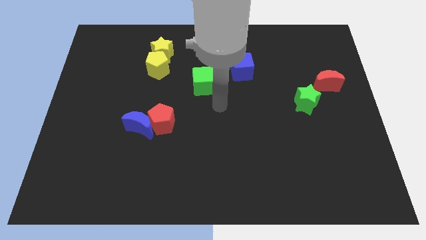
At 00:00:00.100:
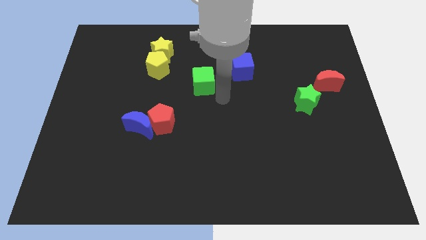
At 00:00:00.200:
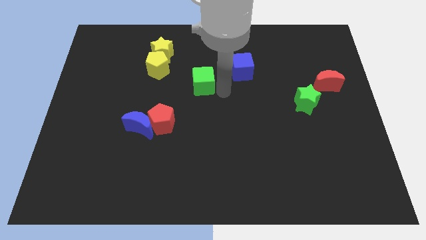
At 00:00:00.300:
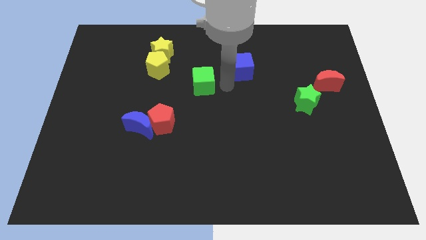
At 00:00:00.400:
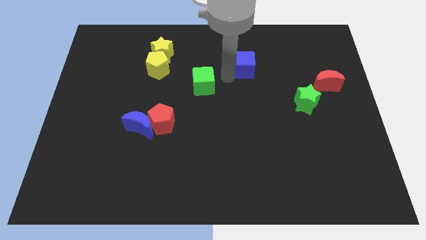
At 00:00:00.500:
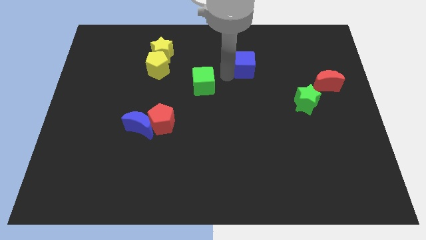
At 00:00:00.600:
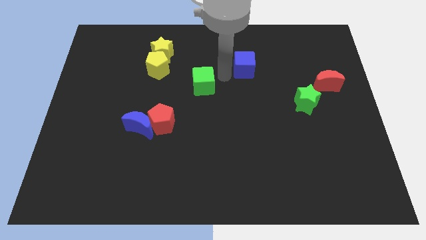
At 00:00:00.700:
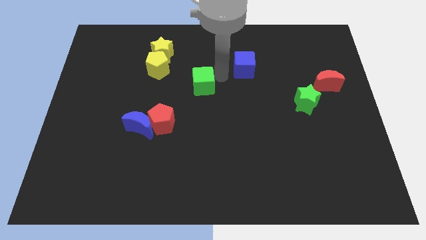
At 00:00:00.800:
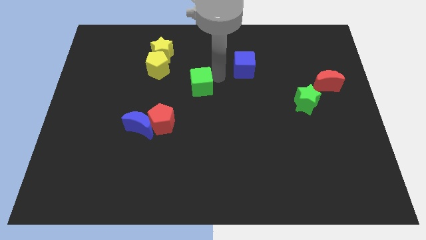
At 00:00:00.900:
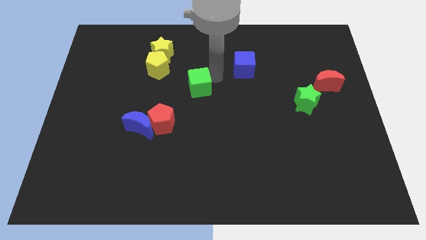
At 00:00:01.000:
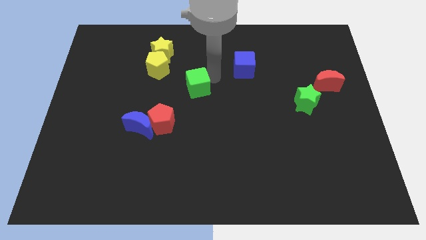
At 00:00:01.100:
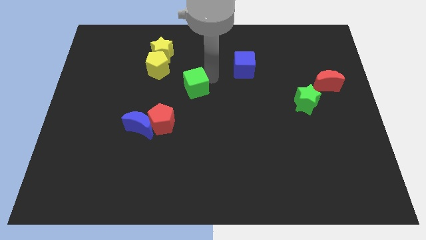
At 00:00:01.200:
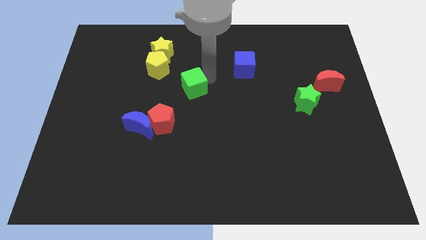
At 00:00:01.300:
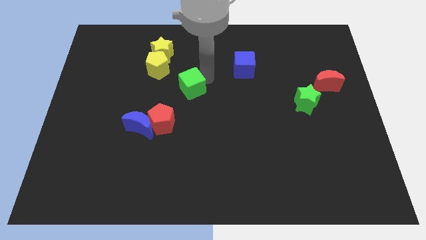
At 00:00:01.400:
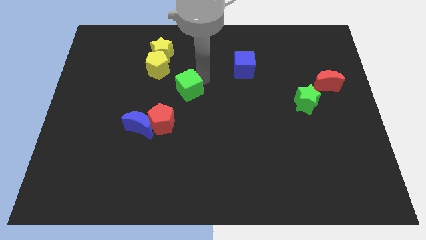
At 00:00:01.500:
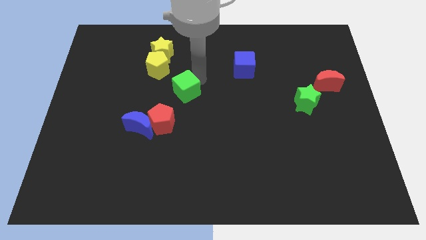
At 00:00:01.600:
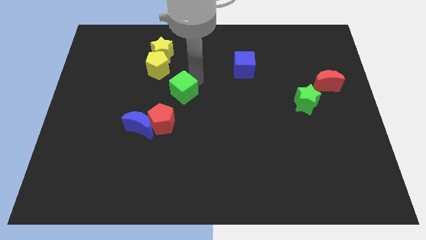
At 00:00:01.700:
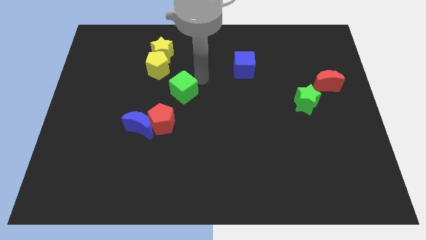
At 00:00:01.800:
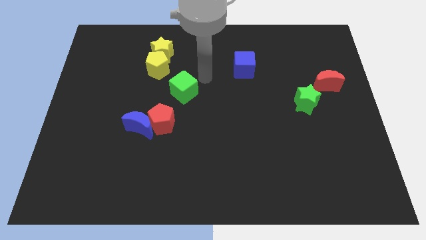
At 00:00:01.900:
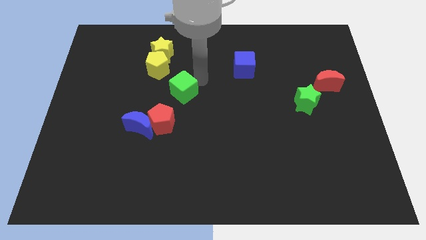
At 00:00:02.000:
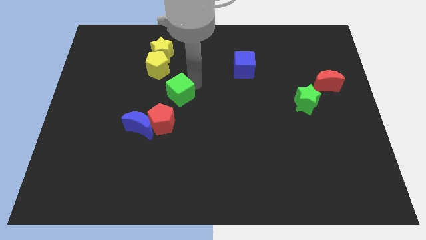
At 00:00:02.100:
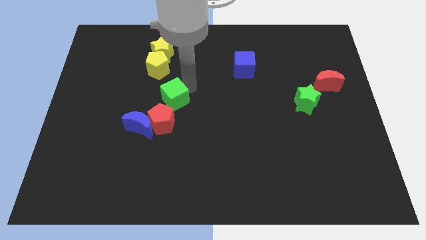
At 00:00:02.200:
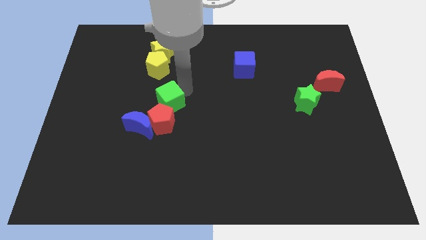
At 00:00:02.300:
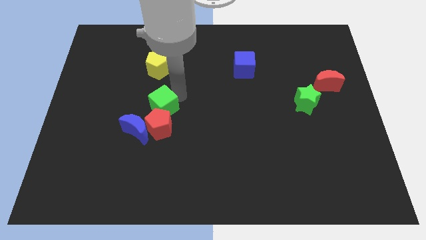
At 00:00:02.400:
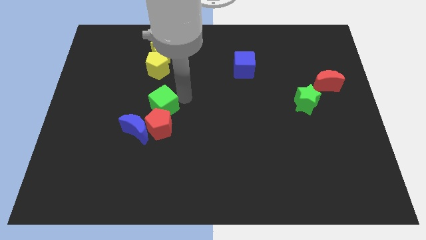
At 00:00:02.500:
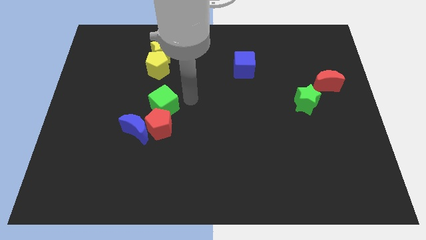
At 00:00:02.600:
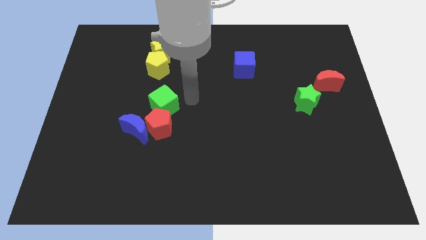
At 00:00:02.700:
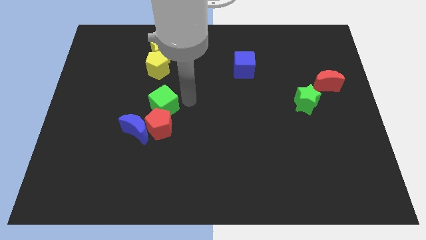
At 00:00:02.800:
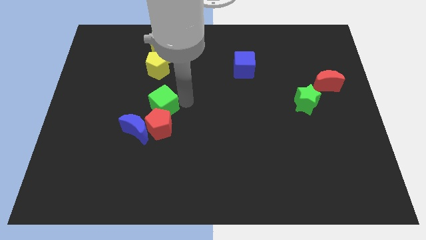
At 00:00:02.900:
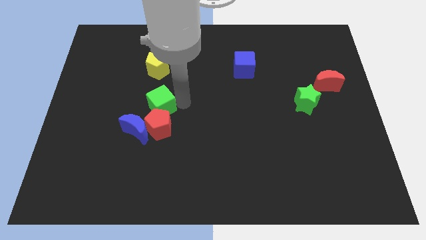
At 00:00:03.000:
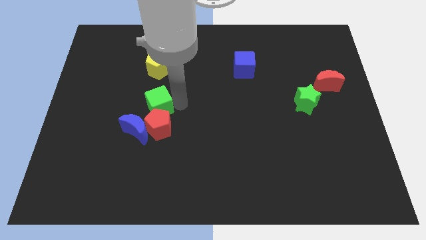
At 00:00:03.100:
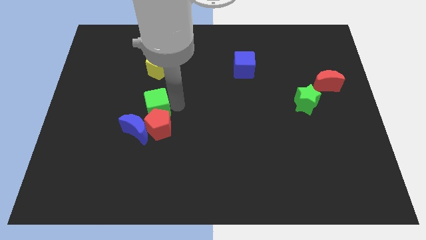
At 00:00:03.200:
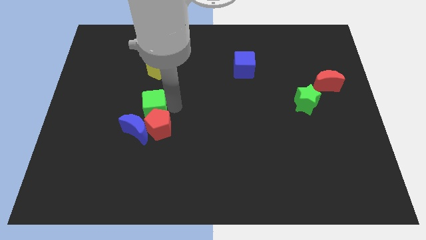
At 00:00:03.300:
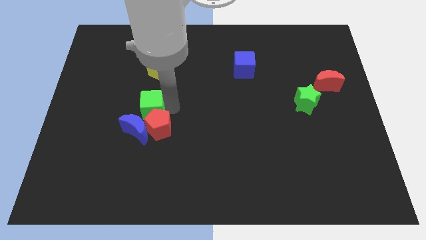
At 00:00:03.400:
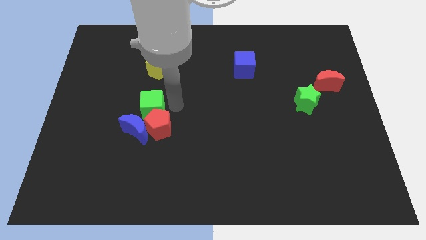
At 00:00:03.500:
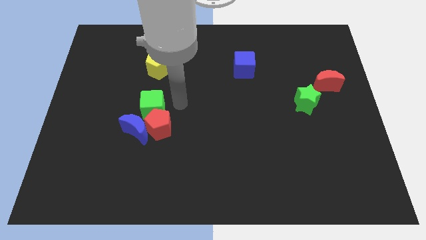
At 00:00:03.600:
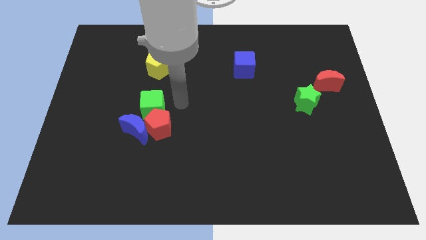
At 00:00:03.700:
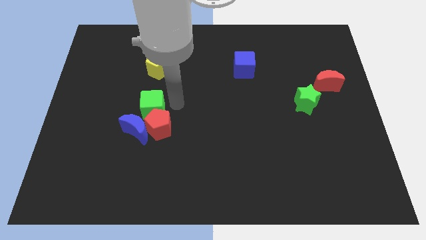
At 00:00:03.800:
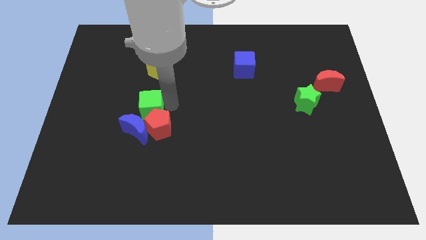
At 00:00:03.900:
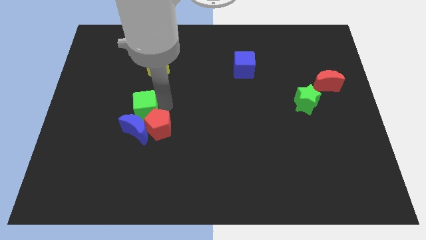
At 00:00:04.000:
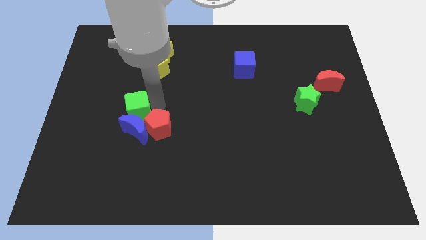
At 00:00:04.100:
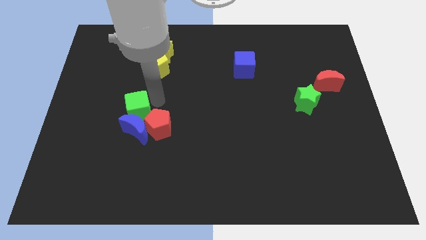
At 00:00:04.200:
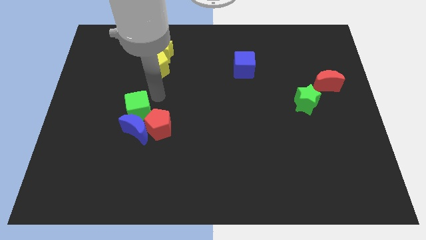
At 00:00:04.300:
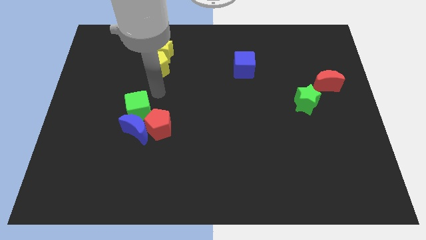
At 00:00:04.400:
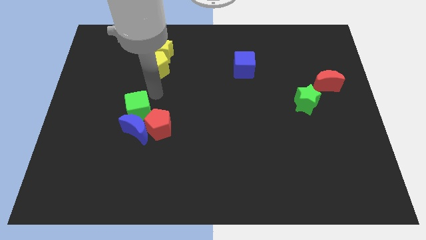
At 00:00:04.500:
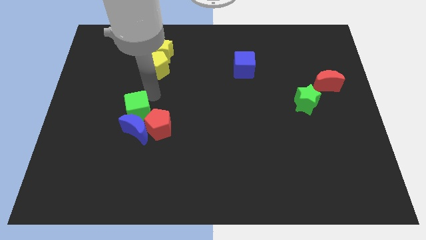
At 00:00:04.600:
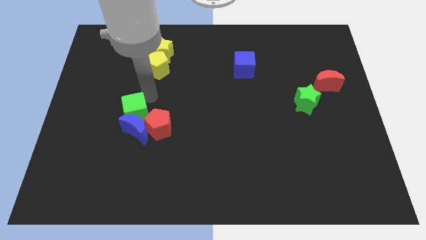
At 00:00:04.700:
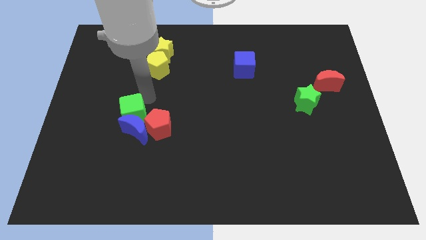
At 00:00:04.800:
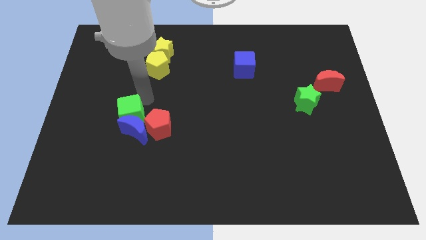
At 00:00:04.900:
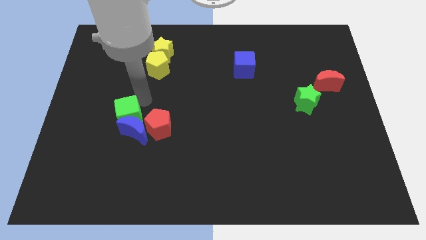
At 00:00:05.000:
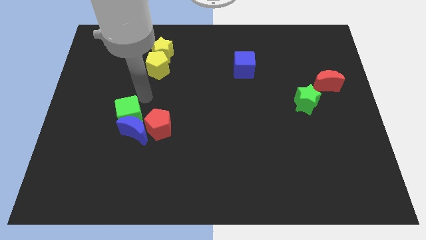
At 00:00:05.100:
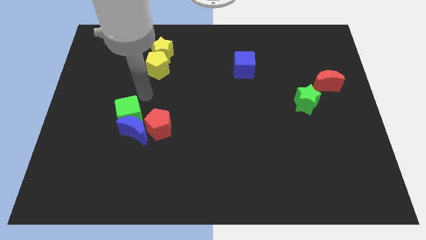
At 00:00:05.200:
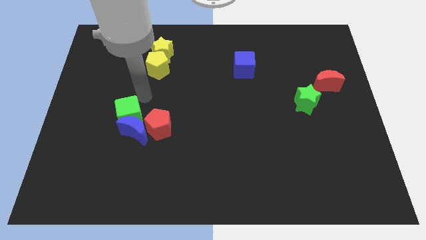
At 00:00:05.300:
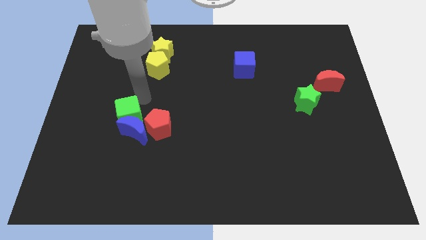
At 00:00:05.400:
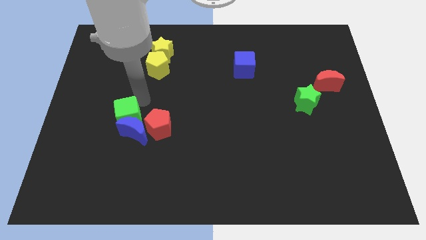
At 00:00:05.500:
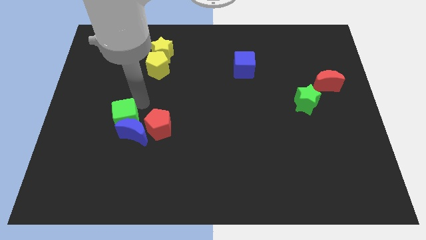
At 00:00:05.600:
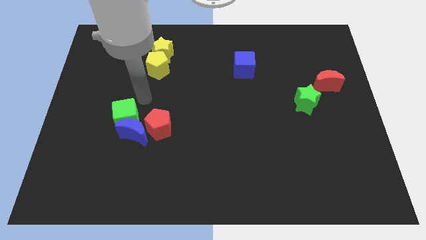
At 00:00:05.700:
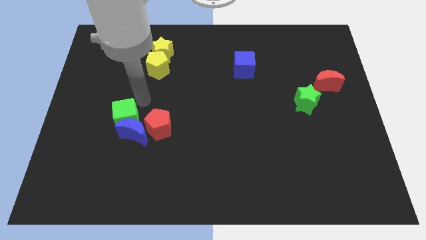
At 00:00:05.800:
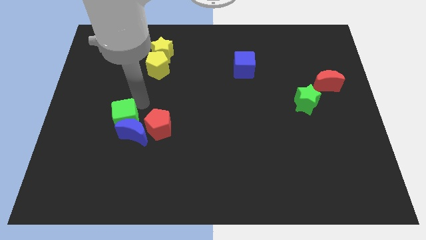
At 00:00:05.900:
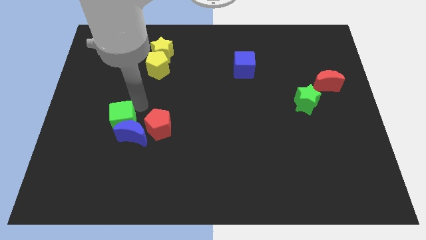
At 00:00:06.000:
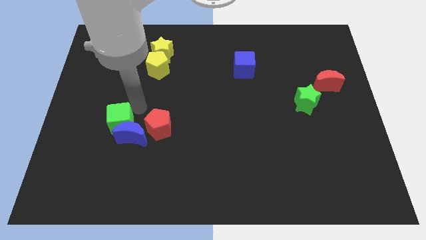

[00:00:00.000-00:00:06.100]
slide the green cube downwards and to the left

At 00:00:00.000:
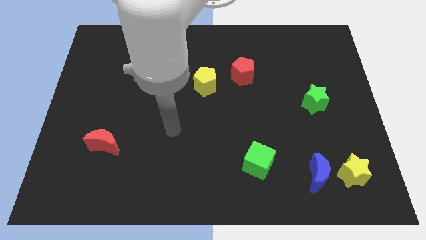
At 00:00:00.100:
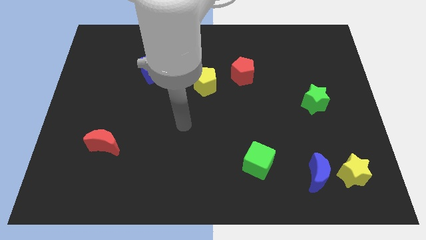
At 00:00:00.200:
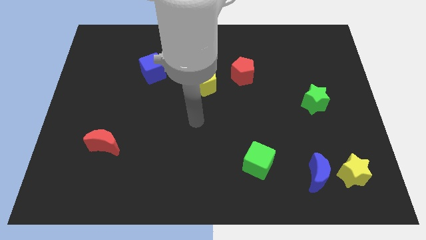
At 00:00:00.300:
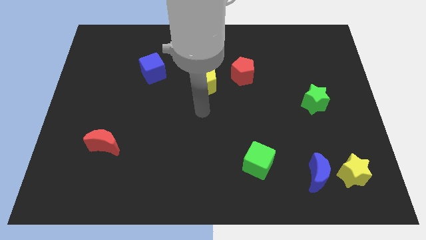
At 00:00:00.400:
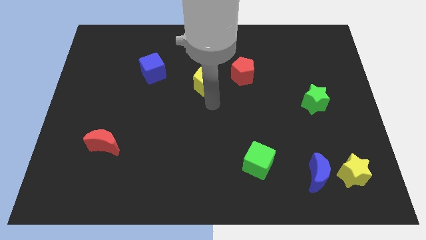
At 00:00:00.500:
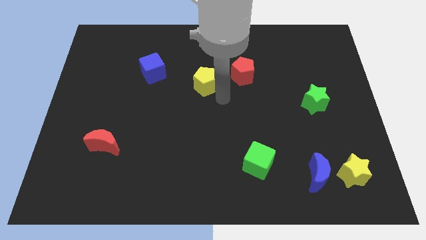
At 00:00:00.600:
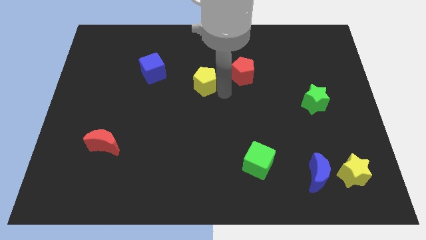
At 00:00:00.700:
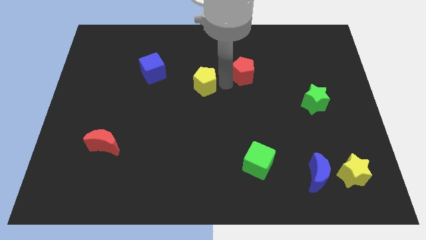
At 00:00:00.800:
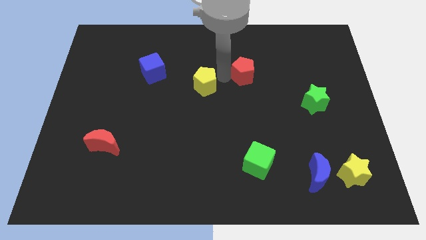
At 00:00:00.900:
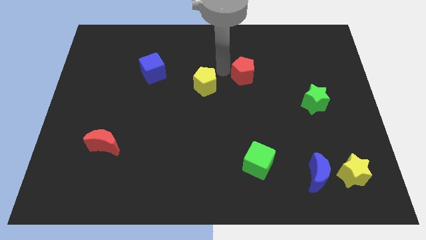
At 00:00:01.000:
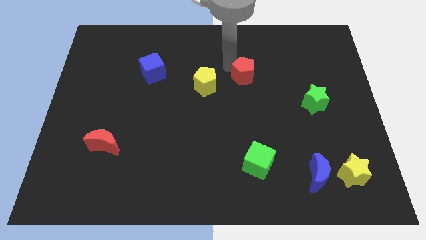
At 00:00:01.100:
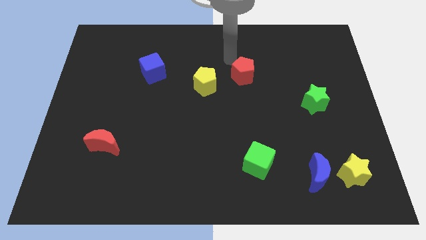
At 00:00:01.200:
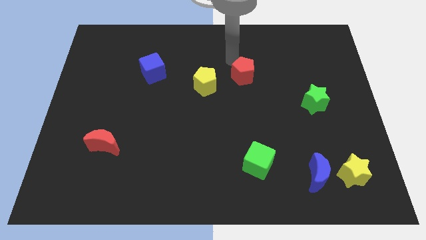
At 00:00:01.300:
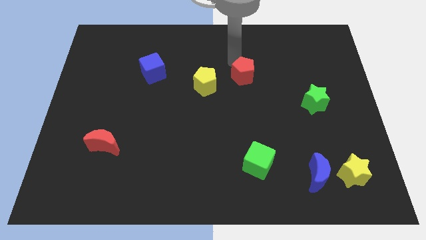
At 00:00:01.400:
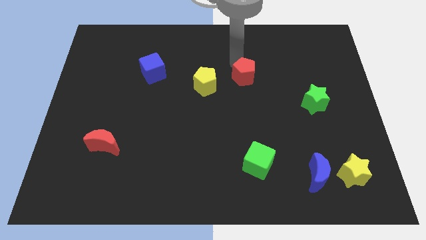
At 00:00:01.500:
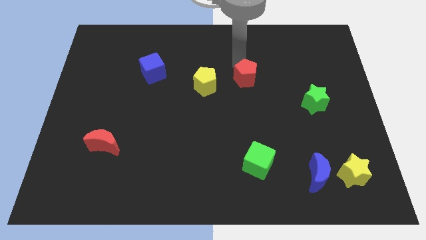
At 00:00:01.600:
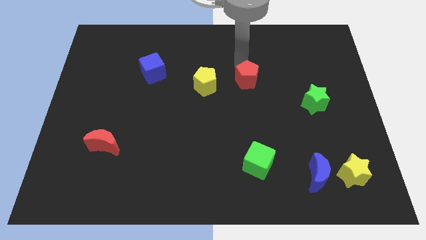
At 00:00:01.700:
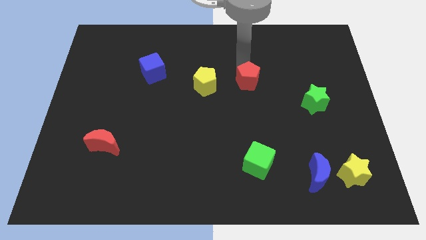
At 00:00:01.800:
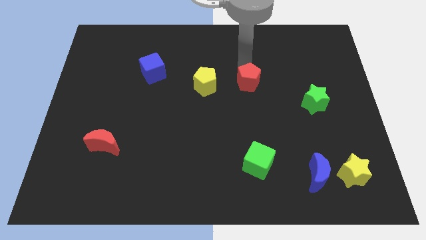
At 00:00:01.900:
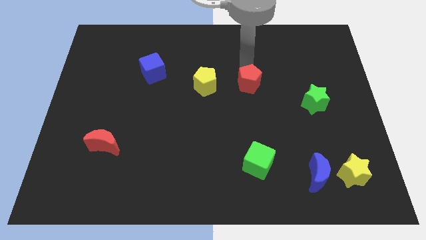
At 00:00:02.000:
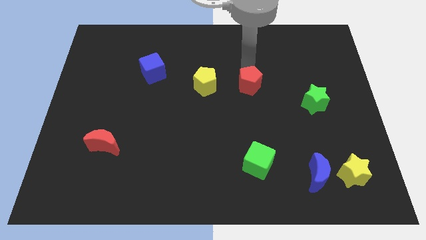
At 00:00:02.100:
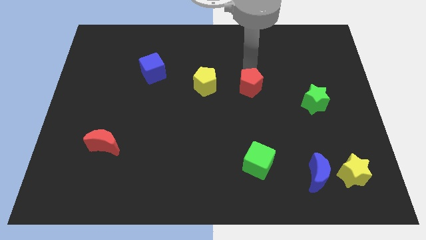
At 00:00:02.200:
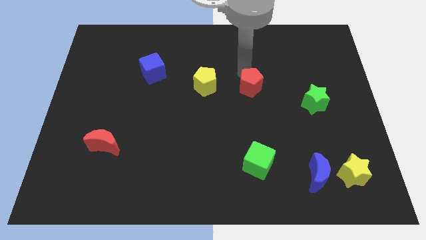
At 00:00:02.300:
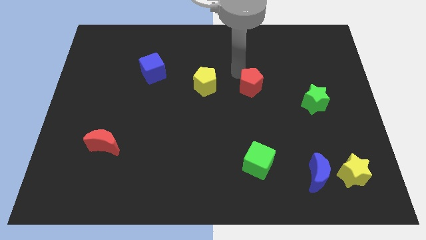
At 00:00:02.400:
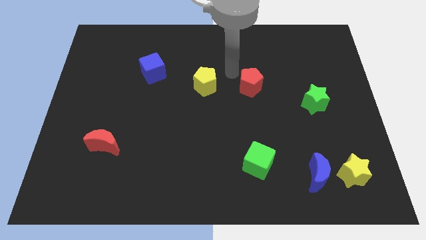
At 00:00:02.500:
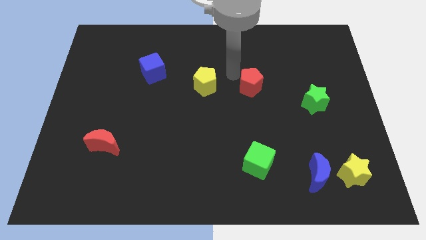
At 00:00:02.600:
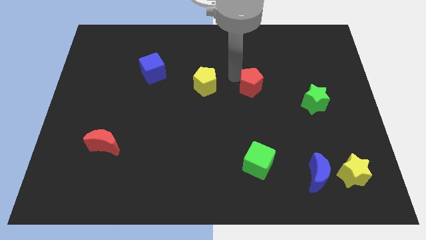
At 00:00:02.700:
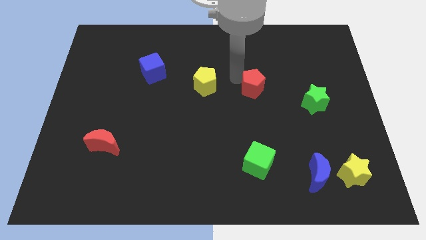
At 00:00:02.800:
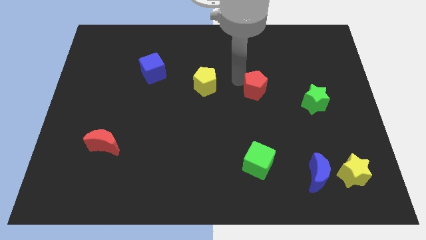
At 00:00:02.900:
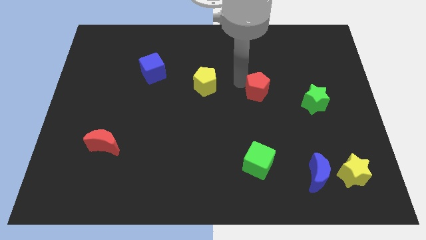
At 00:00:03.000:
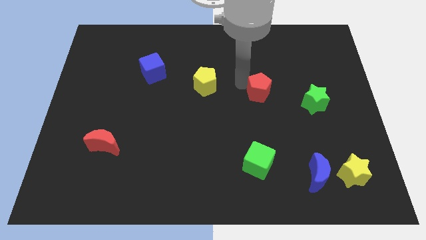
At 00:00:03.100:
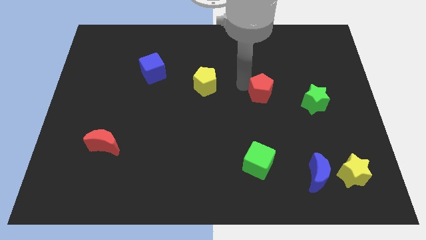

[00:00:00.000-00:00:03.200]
slide the red pentagon downwards and right diagonally a bit
